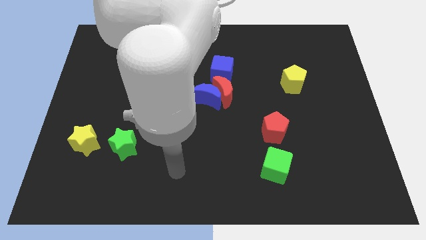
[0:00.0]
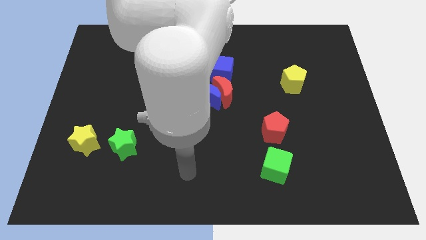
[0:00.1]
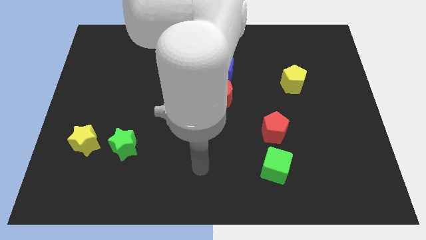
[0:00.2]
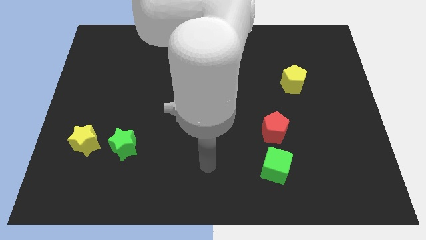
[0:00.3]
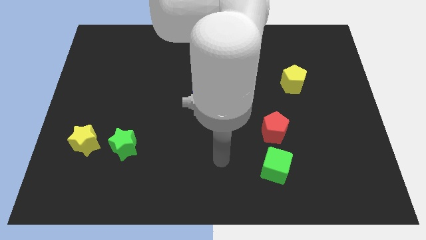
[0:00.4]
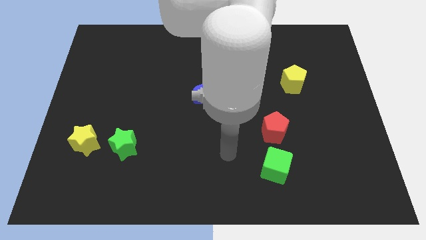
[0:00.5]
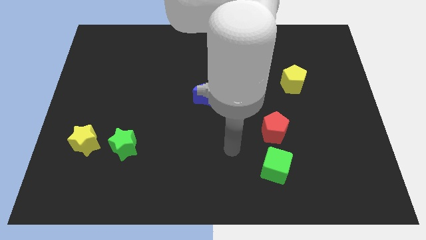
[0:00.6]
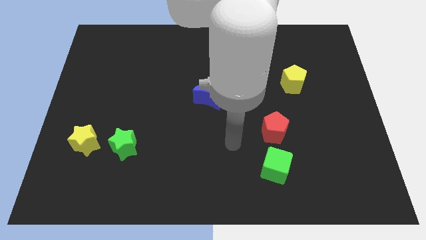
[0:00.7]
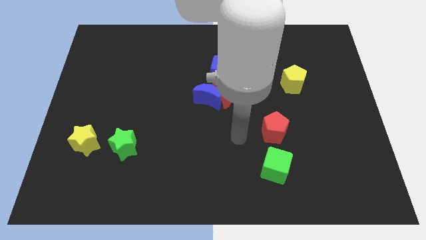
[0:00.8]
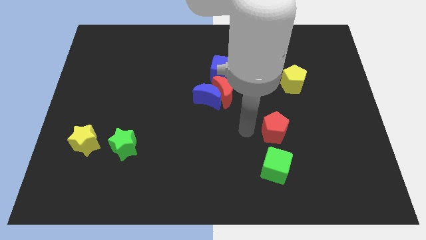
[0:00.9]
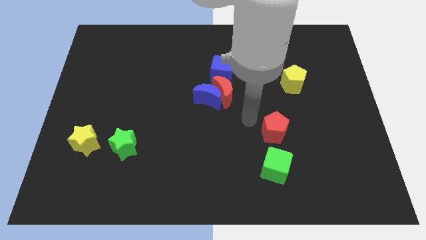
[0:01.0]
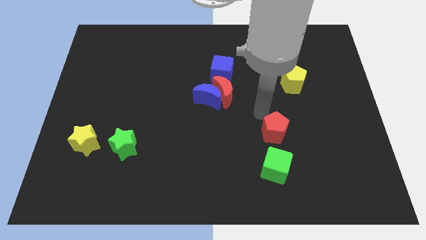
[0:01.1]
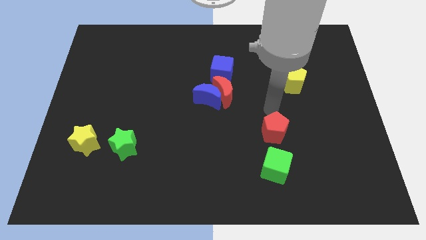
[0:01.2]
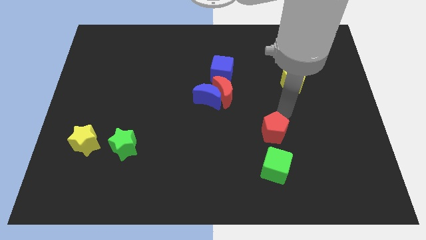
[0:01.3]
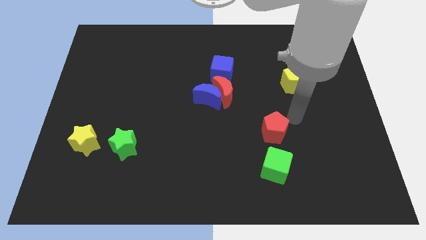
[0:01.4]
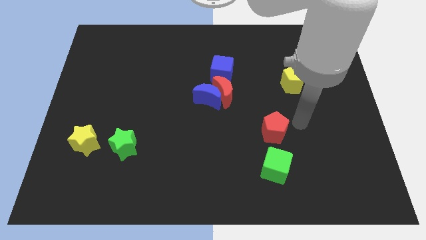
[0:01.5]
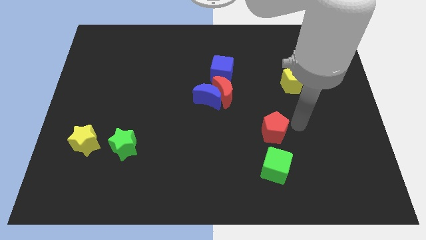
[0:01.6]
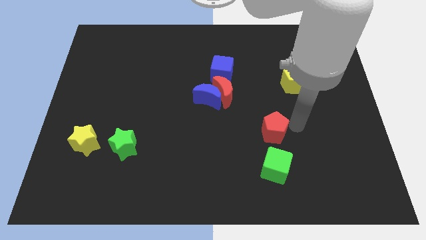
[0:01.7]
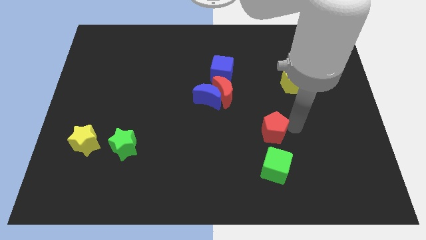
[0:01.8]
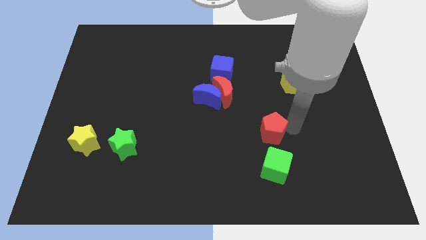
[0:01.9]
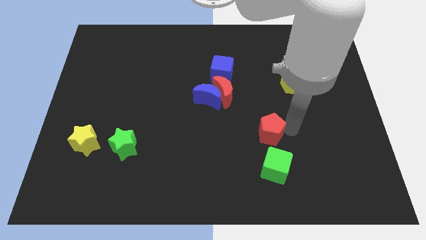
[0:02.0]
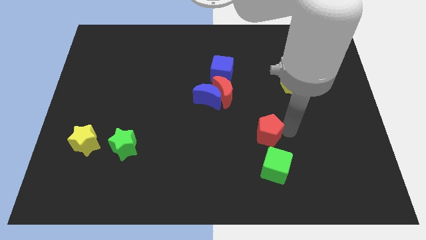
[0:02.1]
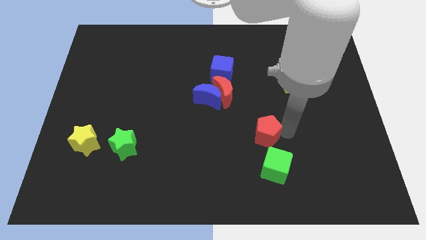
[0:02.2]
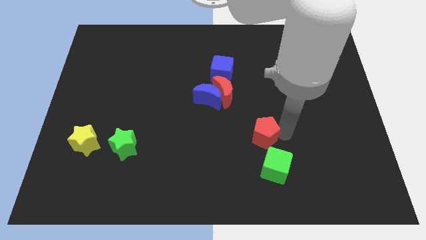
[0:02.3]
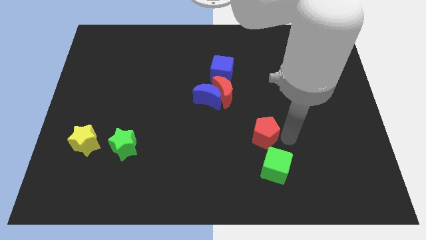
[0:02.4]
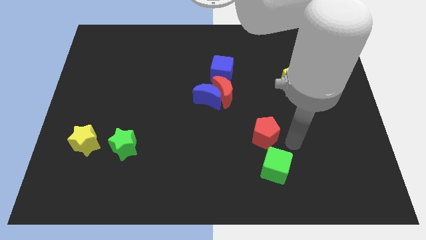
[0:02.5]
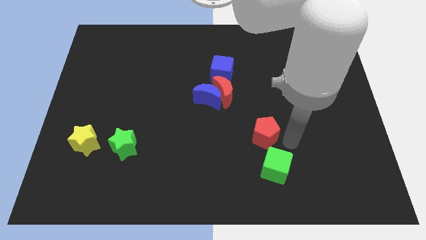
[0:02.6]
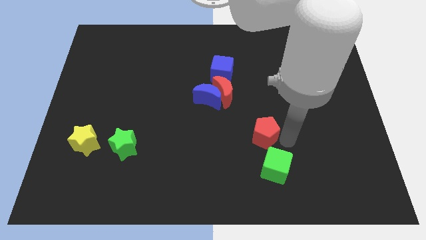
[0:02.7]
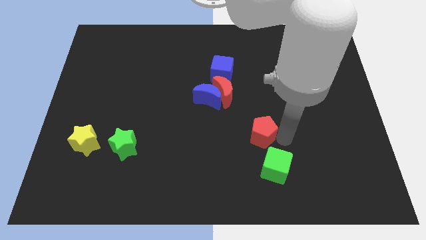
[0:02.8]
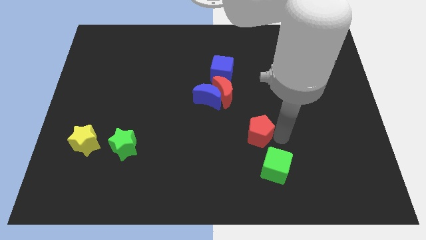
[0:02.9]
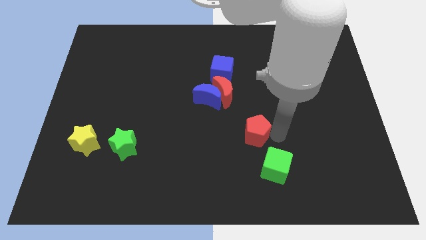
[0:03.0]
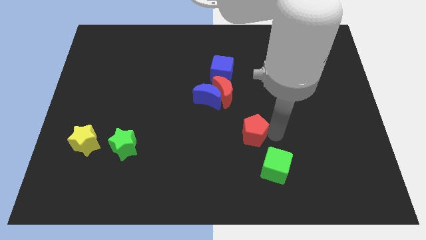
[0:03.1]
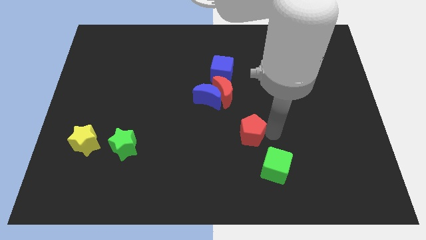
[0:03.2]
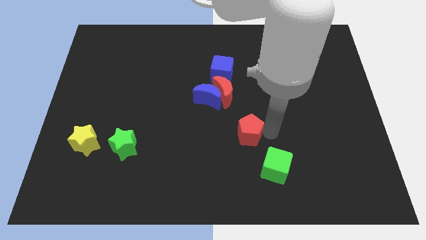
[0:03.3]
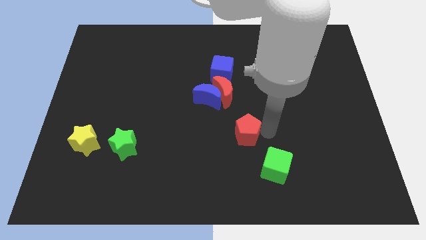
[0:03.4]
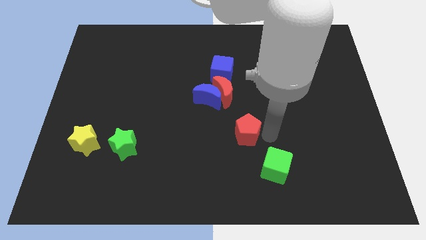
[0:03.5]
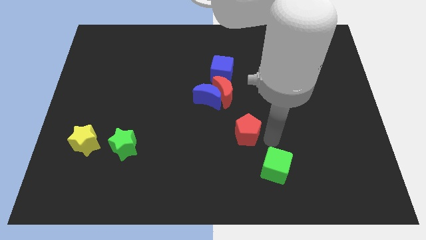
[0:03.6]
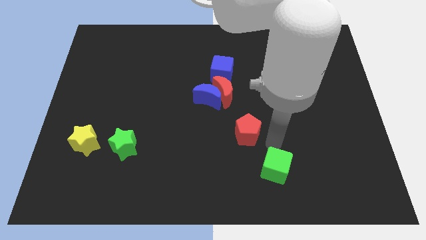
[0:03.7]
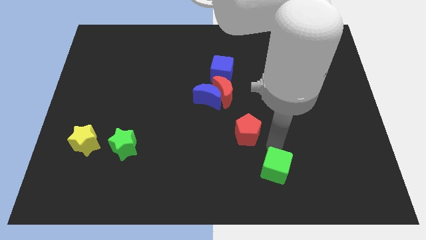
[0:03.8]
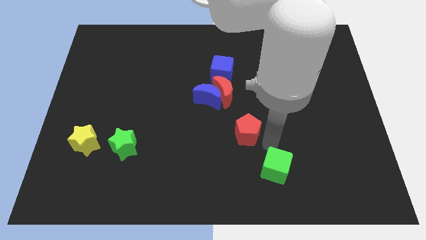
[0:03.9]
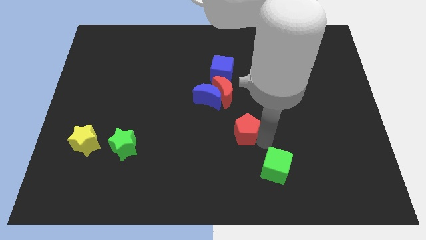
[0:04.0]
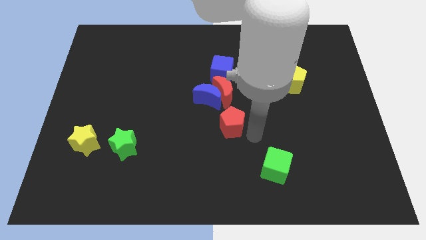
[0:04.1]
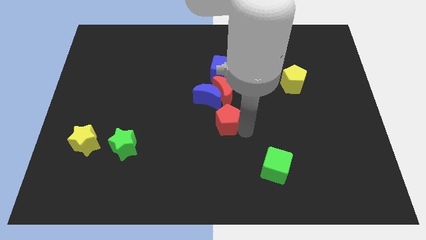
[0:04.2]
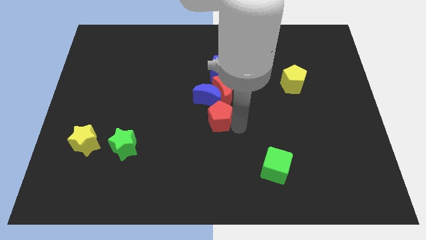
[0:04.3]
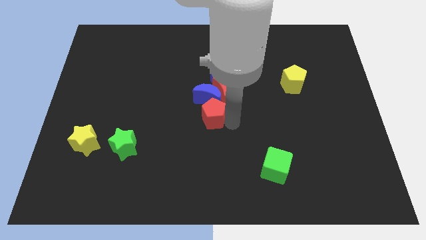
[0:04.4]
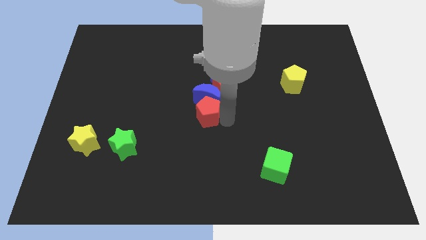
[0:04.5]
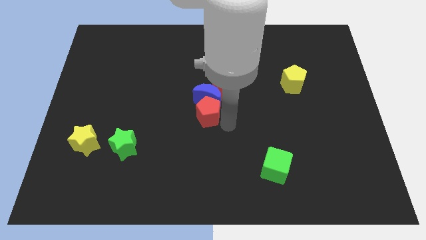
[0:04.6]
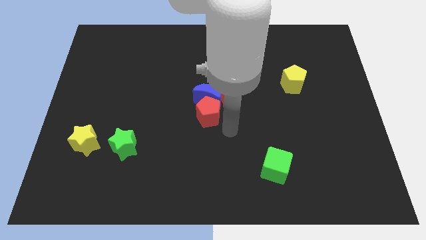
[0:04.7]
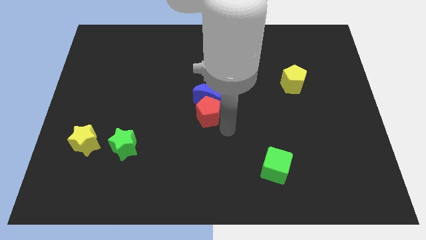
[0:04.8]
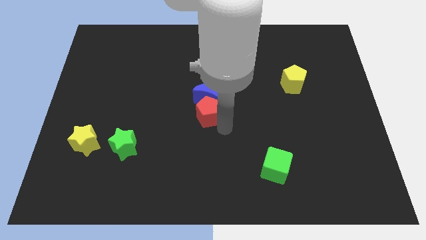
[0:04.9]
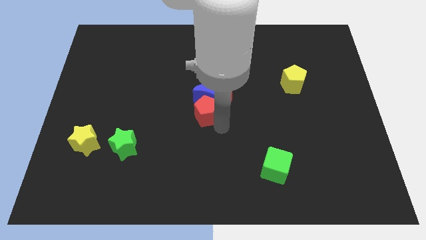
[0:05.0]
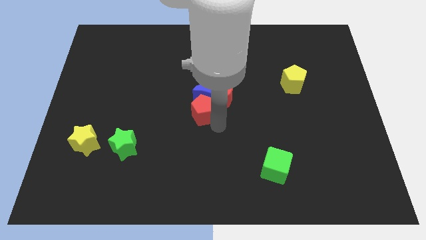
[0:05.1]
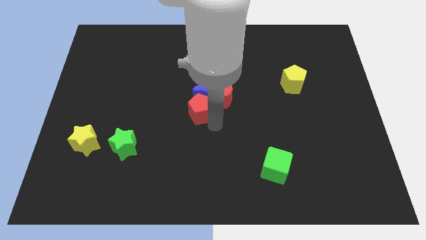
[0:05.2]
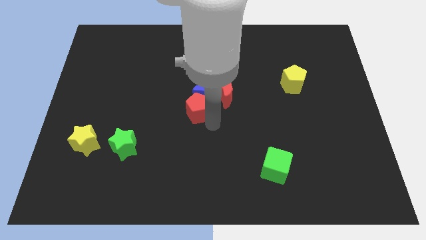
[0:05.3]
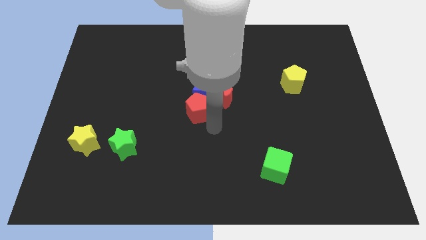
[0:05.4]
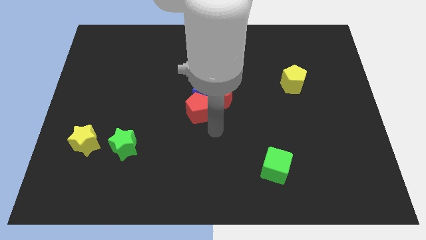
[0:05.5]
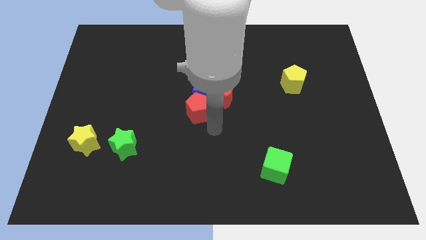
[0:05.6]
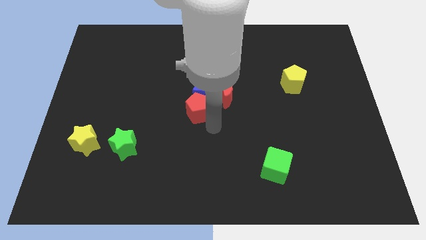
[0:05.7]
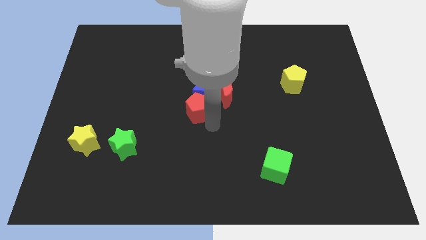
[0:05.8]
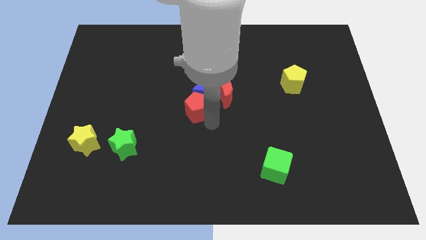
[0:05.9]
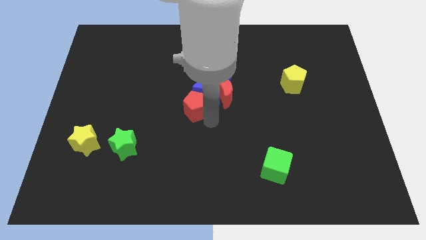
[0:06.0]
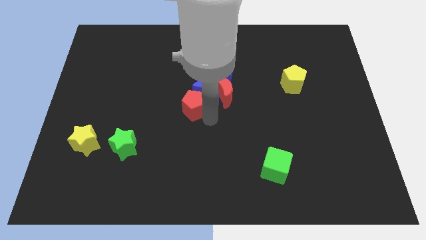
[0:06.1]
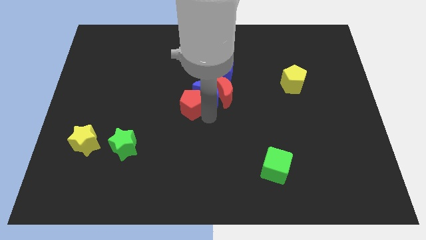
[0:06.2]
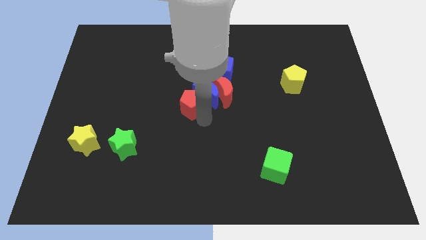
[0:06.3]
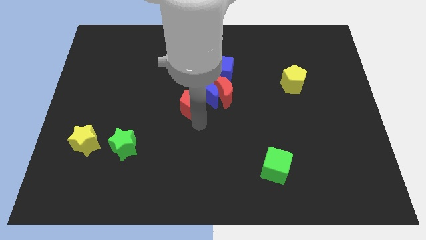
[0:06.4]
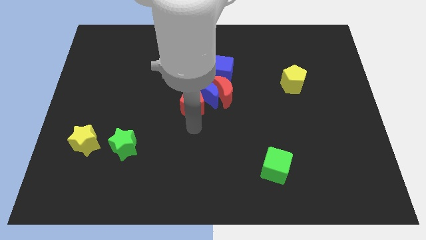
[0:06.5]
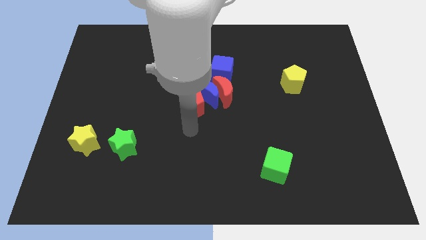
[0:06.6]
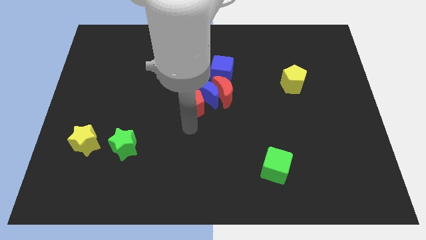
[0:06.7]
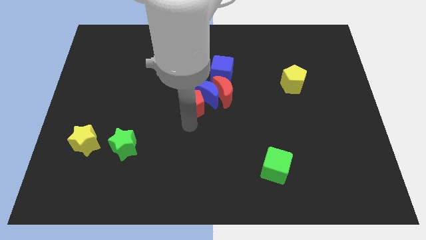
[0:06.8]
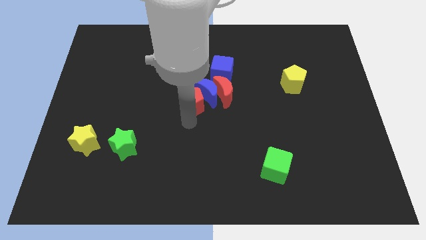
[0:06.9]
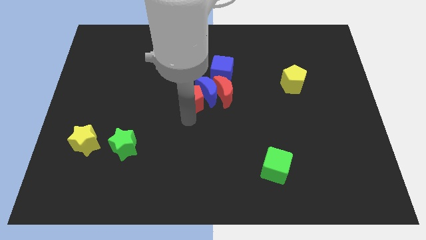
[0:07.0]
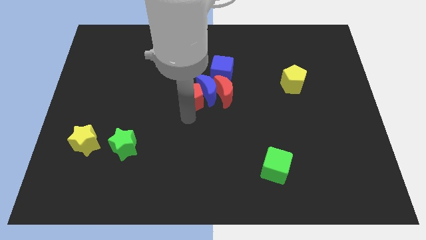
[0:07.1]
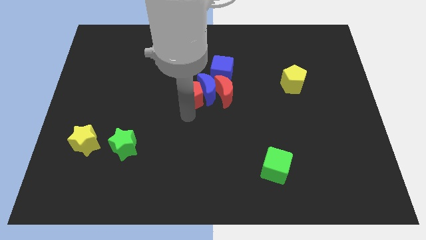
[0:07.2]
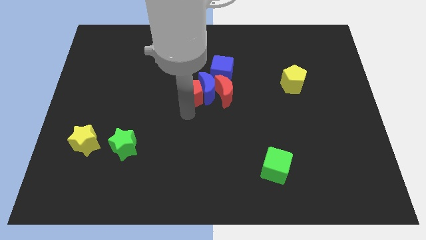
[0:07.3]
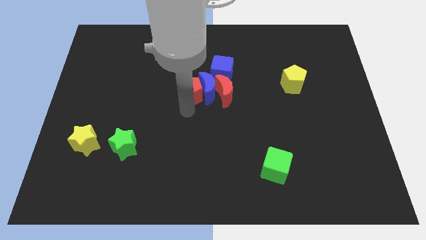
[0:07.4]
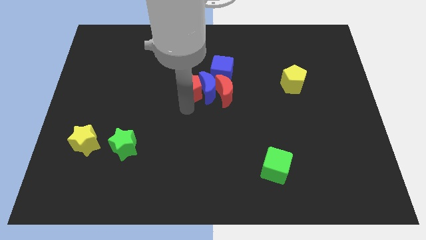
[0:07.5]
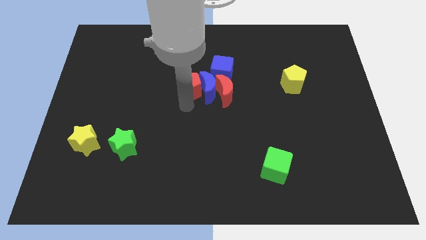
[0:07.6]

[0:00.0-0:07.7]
put the red pentagon to the top left side of the red moon
